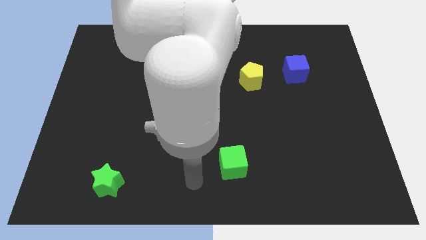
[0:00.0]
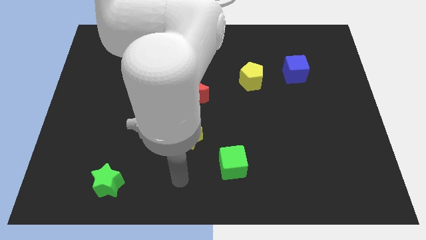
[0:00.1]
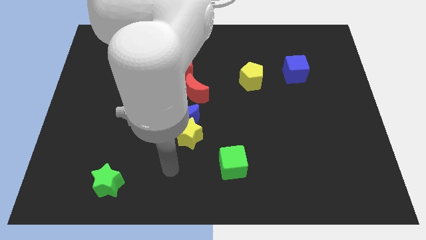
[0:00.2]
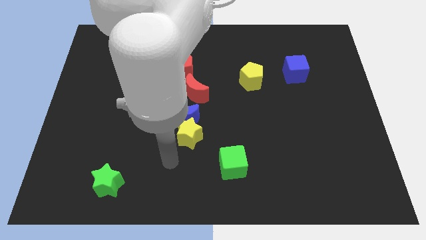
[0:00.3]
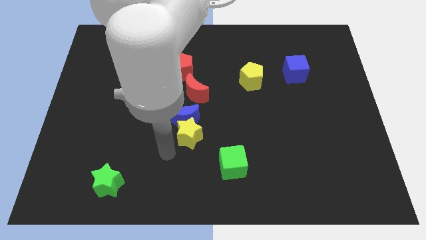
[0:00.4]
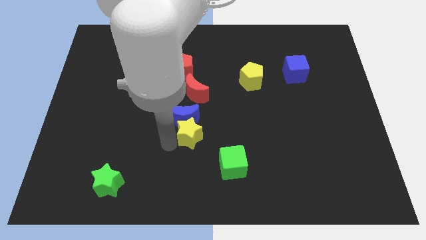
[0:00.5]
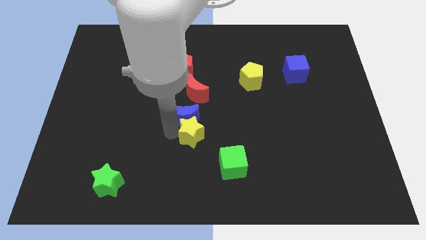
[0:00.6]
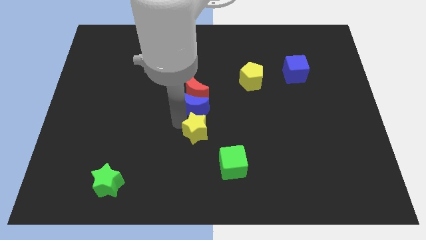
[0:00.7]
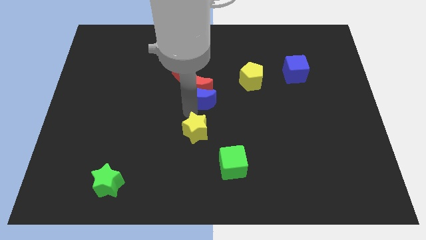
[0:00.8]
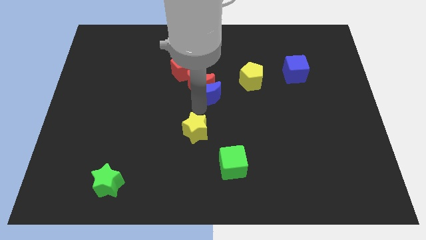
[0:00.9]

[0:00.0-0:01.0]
pull the yellow star apart from the blue moon

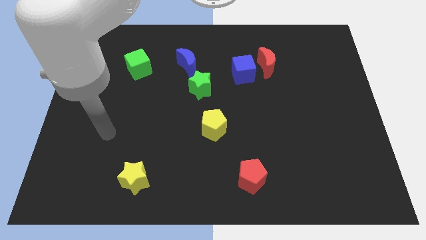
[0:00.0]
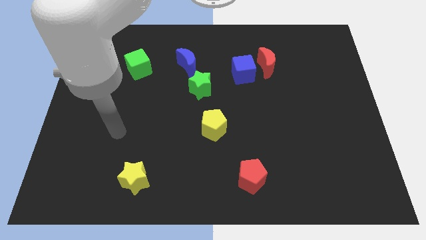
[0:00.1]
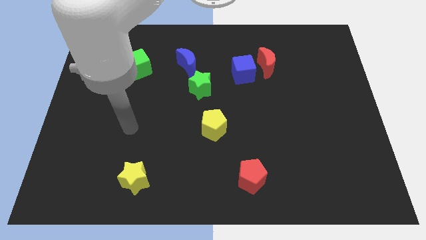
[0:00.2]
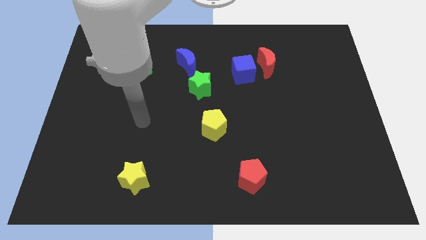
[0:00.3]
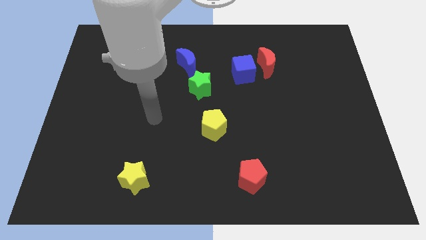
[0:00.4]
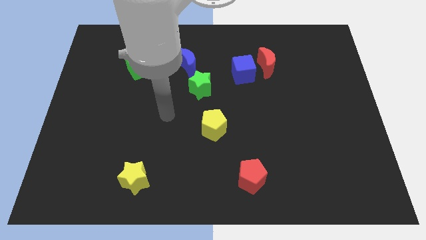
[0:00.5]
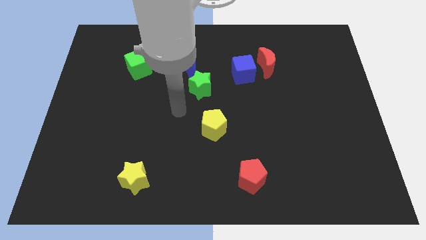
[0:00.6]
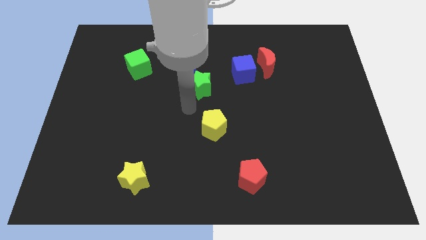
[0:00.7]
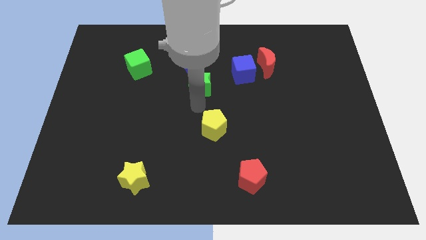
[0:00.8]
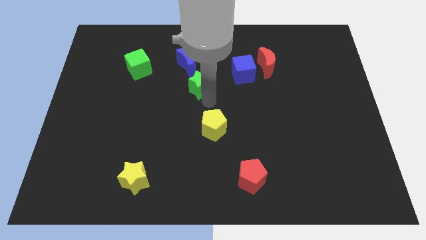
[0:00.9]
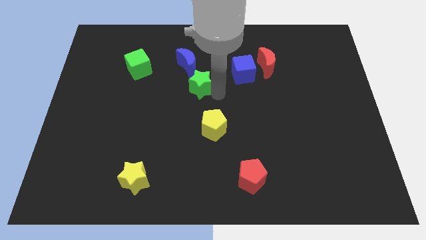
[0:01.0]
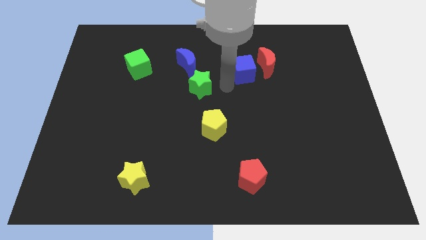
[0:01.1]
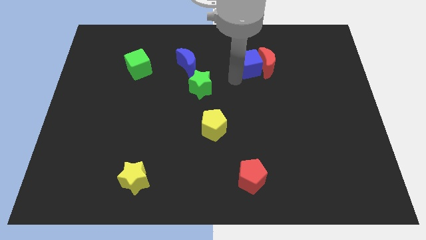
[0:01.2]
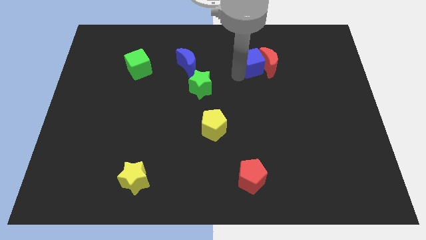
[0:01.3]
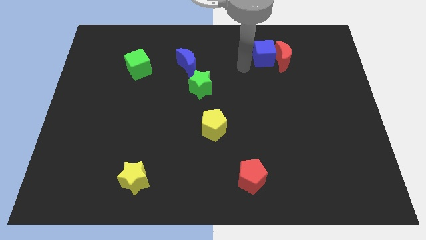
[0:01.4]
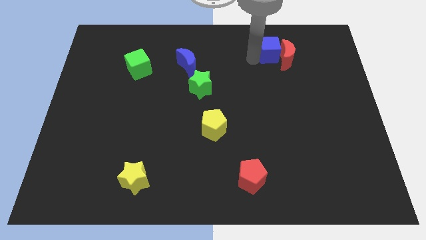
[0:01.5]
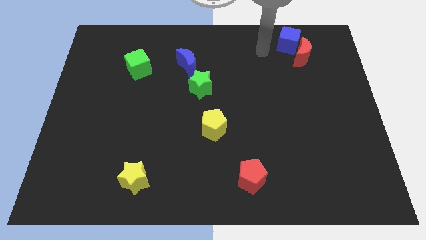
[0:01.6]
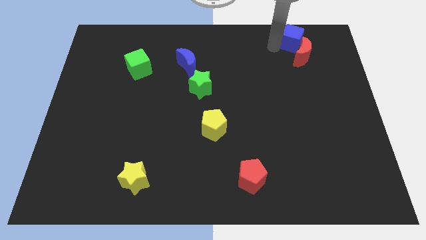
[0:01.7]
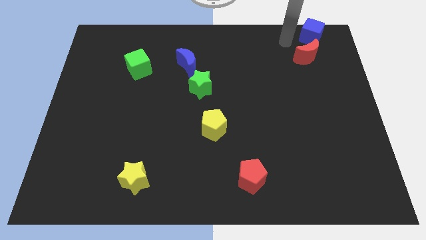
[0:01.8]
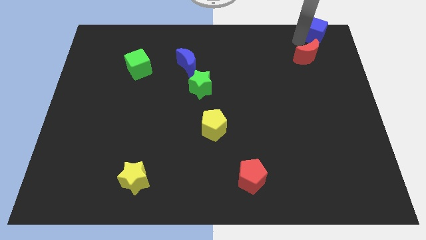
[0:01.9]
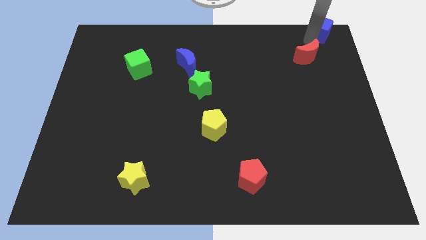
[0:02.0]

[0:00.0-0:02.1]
move the red moon away from the blue cube

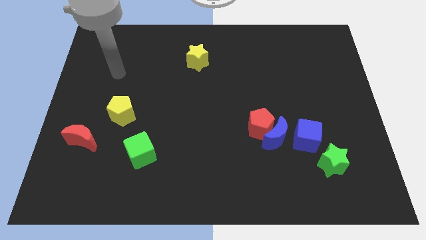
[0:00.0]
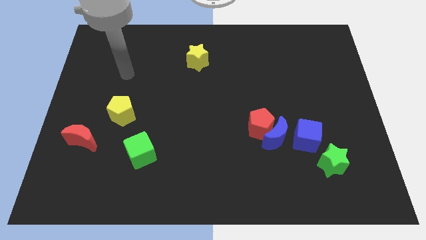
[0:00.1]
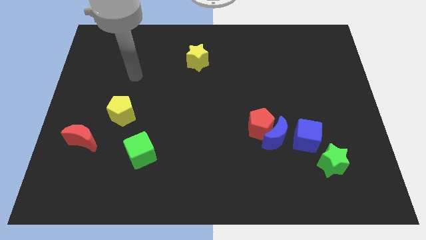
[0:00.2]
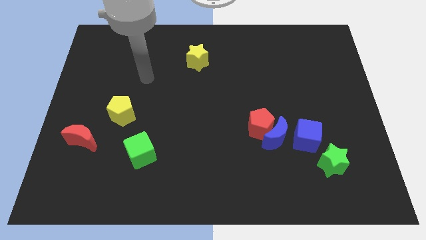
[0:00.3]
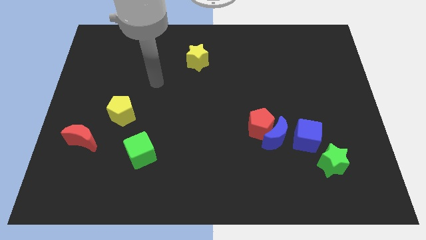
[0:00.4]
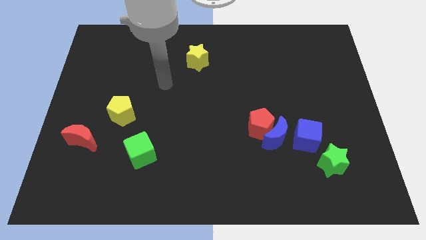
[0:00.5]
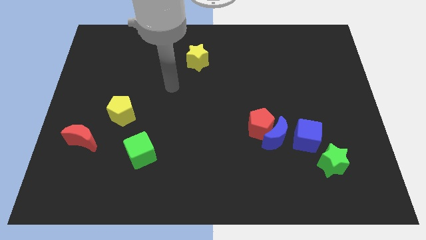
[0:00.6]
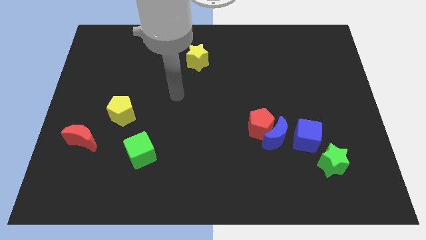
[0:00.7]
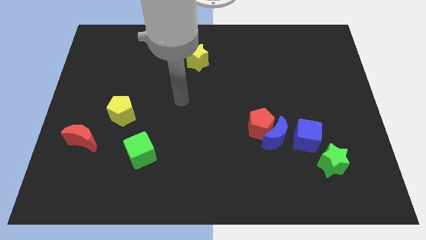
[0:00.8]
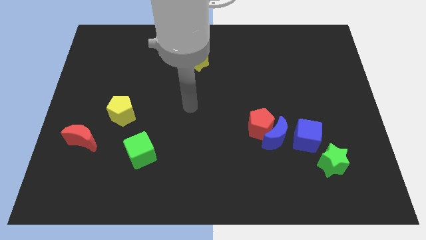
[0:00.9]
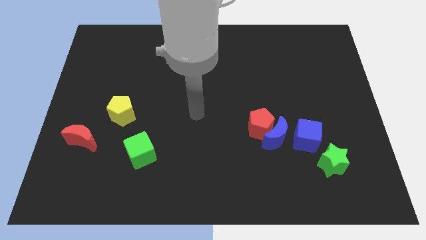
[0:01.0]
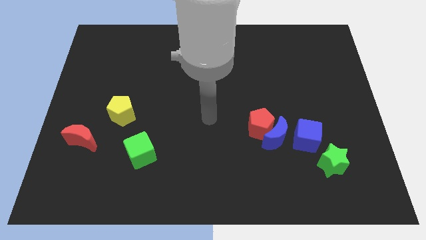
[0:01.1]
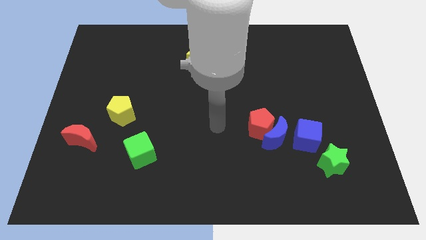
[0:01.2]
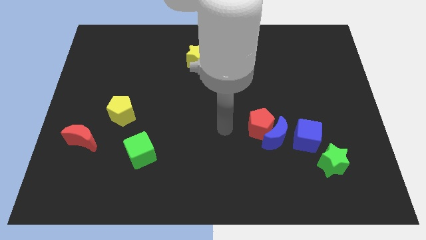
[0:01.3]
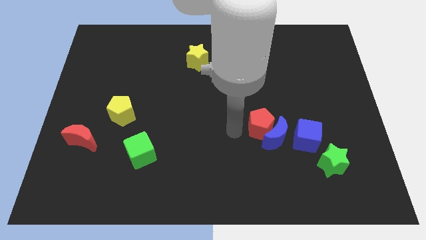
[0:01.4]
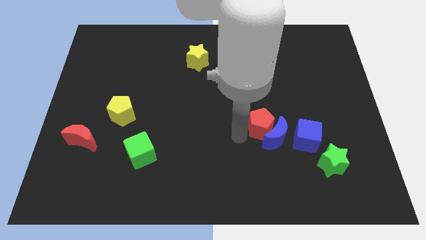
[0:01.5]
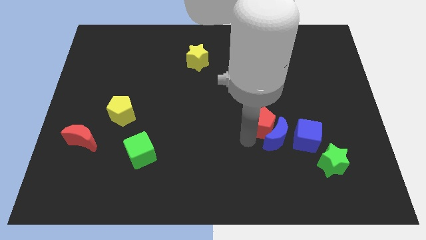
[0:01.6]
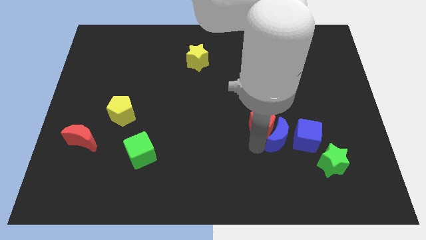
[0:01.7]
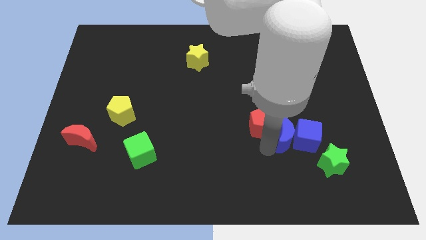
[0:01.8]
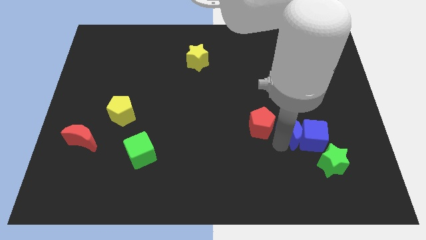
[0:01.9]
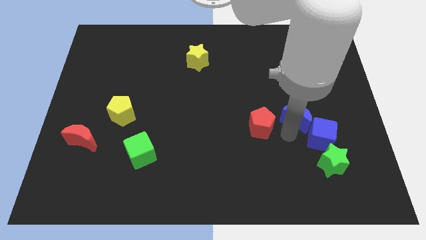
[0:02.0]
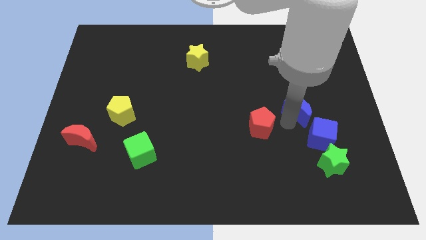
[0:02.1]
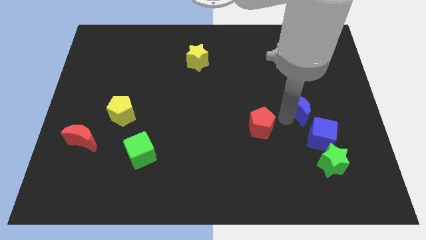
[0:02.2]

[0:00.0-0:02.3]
pull the red pentagon apart from the blue moon

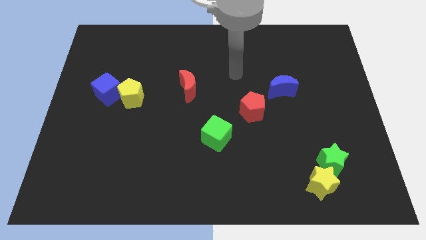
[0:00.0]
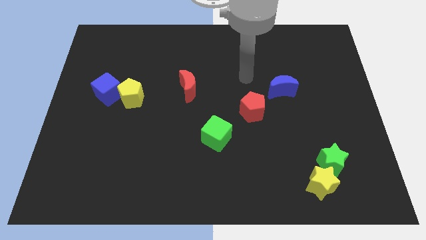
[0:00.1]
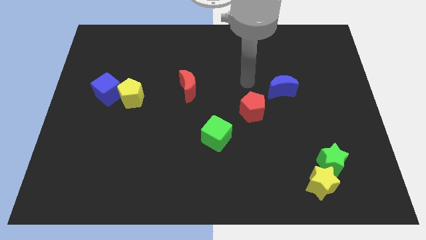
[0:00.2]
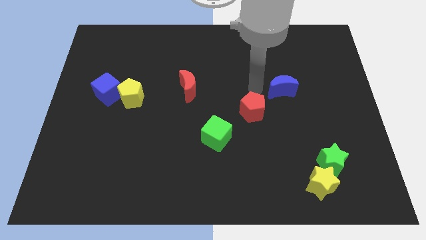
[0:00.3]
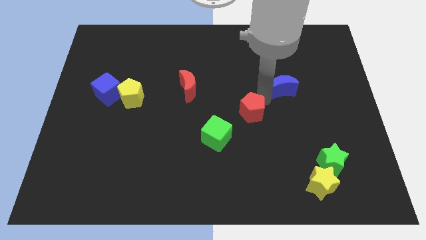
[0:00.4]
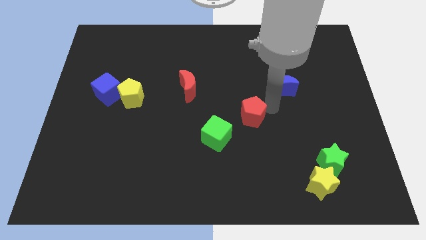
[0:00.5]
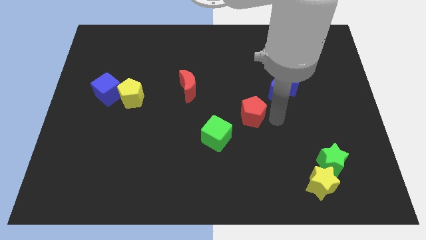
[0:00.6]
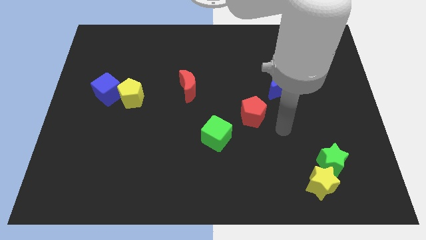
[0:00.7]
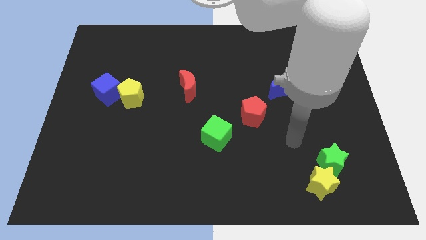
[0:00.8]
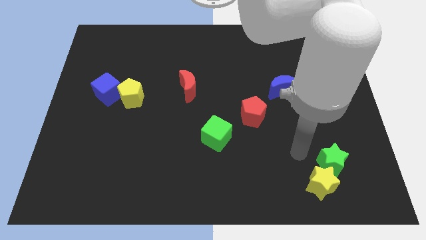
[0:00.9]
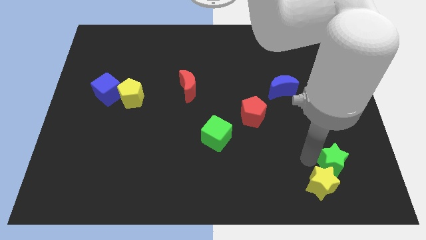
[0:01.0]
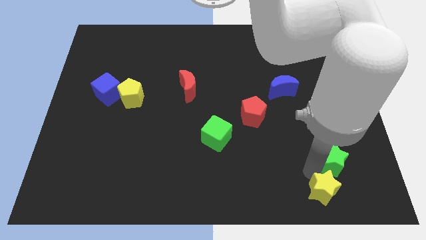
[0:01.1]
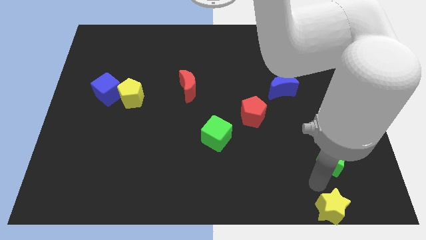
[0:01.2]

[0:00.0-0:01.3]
move the green star away from the yellow star

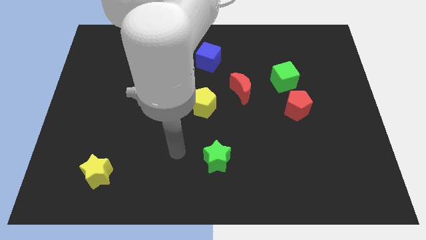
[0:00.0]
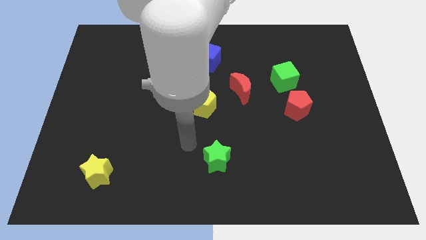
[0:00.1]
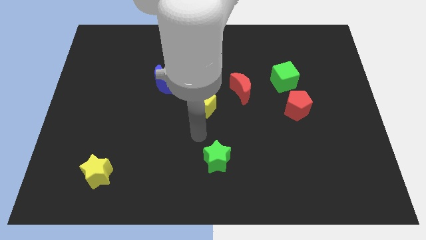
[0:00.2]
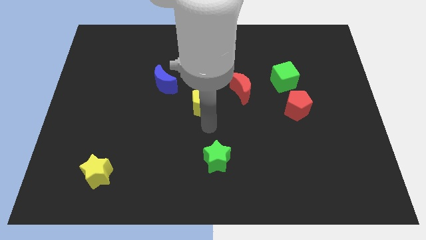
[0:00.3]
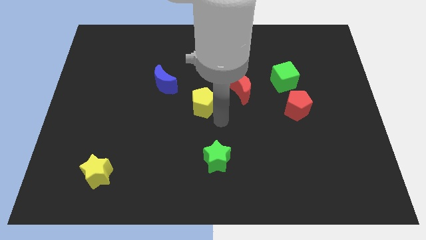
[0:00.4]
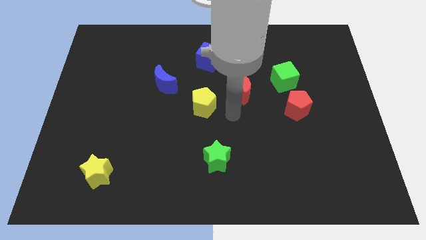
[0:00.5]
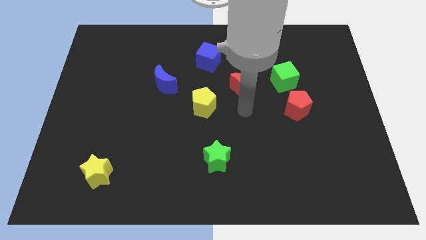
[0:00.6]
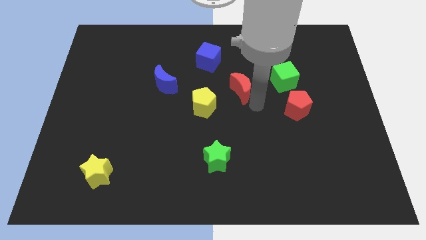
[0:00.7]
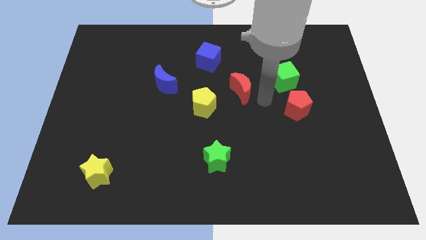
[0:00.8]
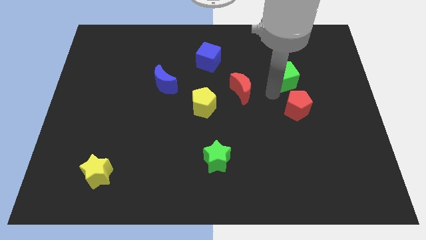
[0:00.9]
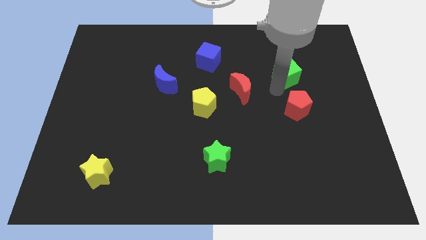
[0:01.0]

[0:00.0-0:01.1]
move the red pentagon away from the green cube

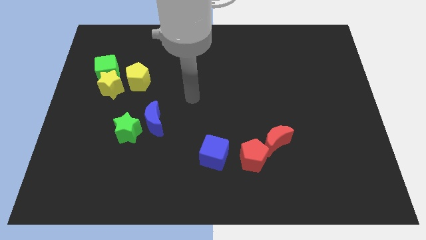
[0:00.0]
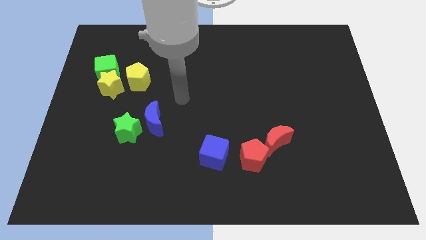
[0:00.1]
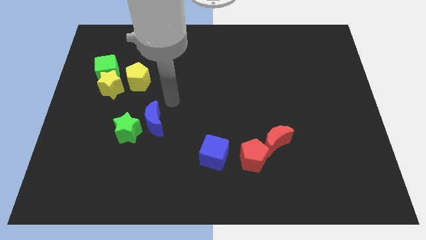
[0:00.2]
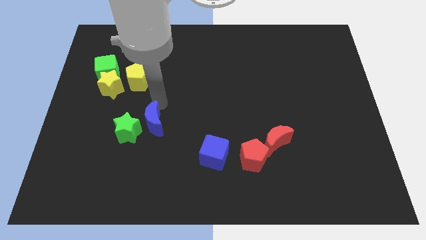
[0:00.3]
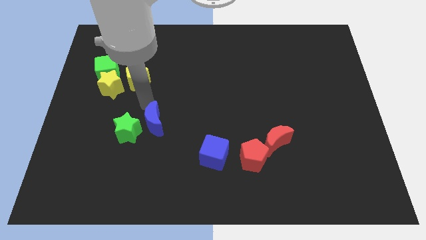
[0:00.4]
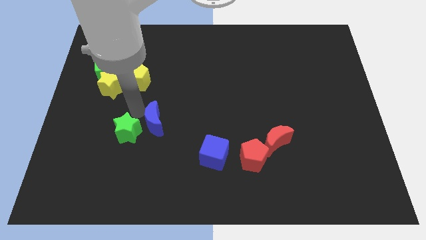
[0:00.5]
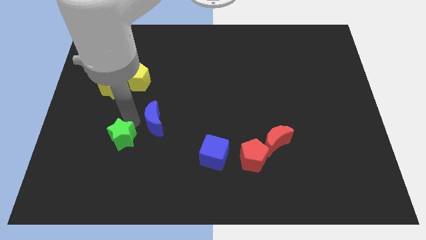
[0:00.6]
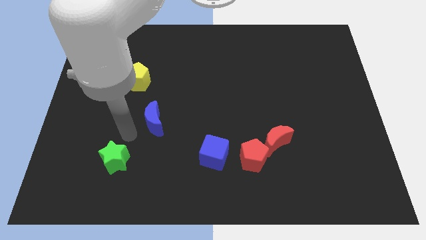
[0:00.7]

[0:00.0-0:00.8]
move the blue moon away from the green star

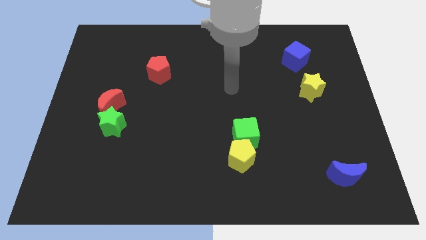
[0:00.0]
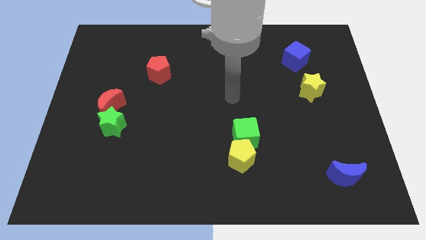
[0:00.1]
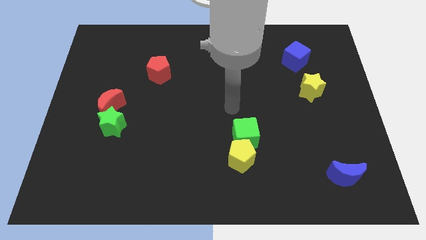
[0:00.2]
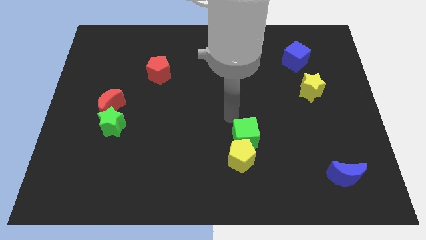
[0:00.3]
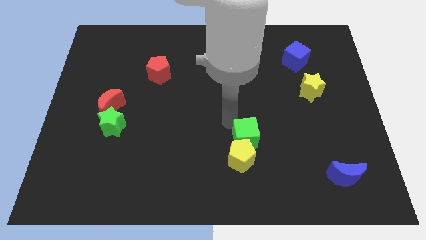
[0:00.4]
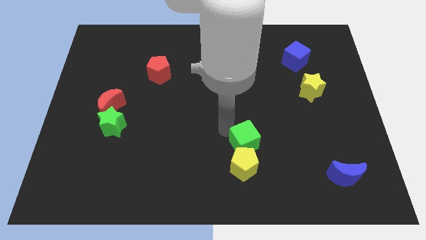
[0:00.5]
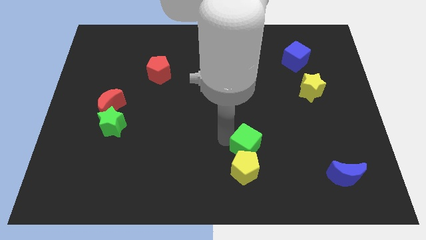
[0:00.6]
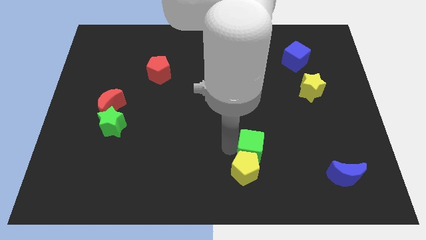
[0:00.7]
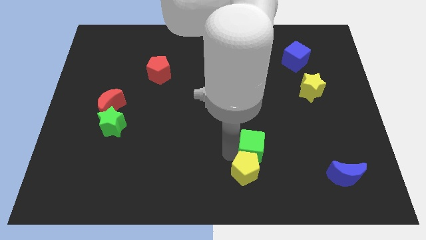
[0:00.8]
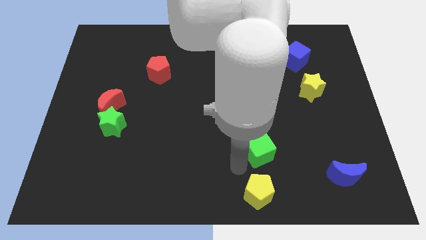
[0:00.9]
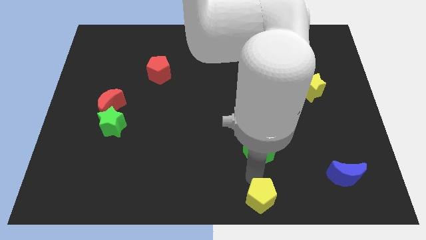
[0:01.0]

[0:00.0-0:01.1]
move the green cube away from the yellow pentagon
